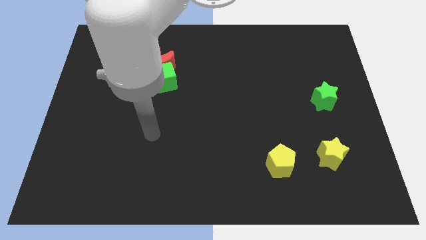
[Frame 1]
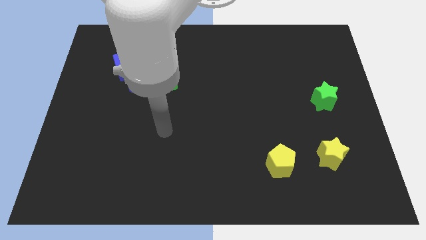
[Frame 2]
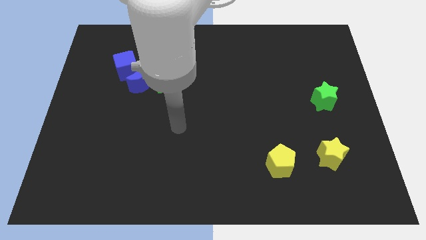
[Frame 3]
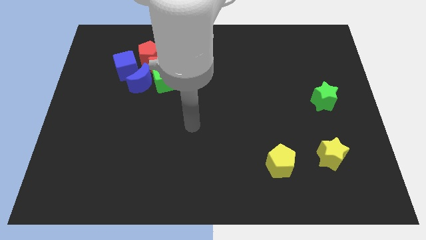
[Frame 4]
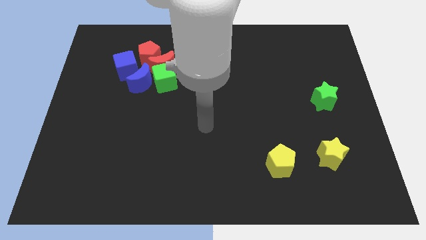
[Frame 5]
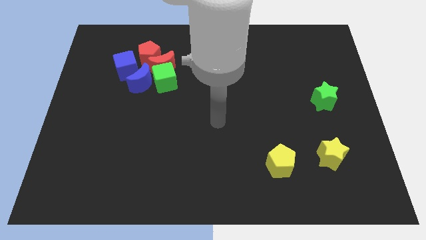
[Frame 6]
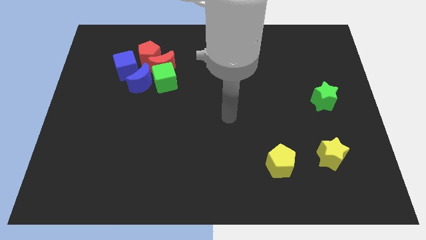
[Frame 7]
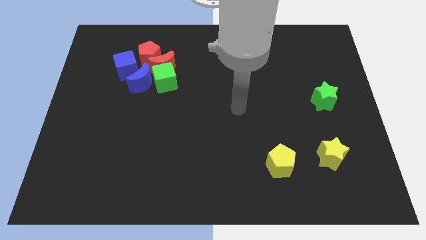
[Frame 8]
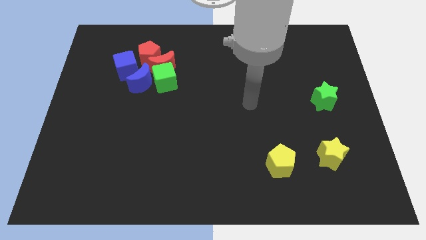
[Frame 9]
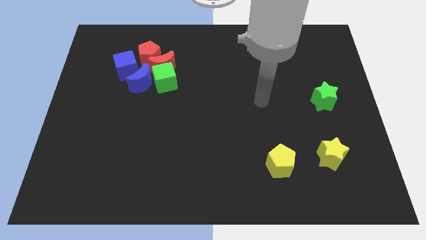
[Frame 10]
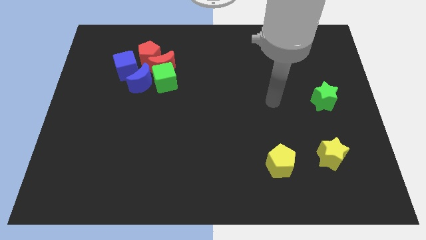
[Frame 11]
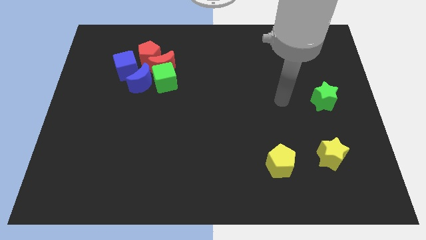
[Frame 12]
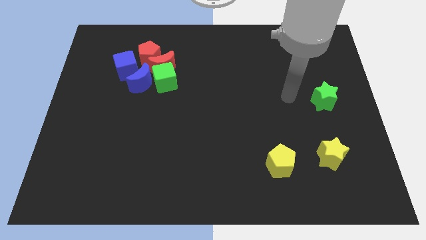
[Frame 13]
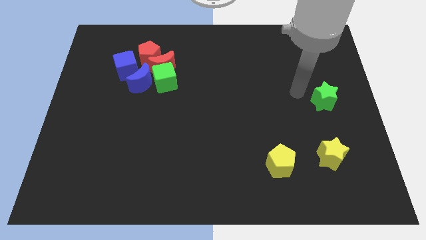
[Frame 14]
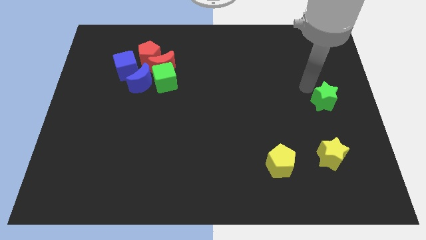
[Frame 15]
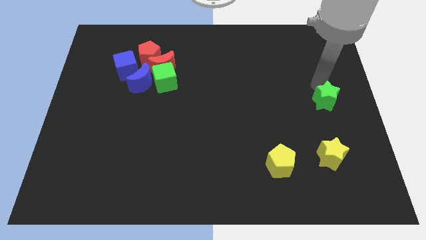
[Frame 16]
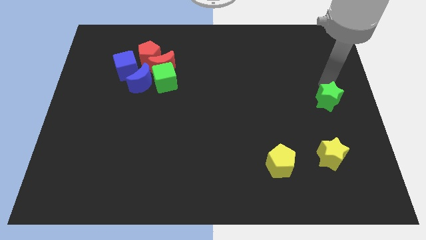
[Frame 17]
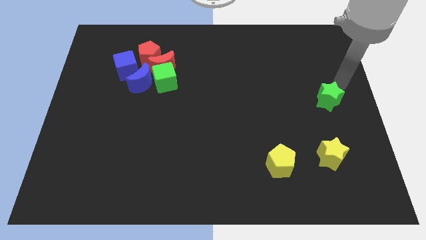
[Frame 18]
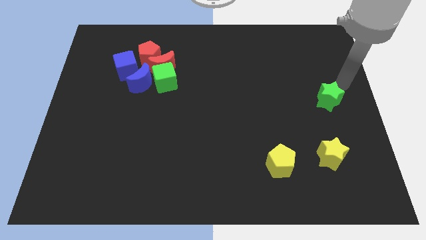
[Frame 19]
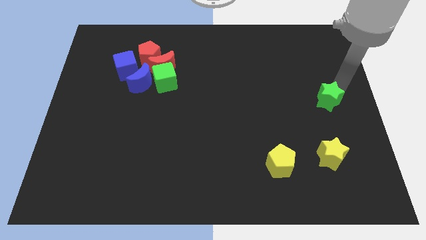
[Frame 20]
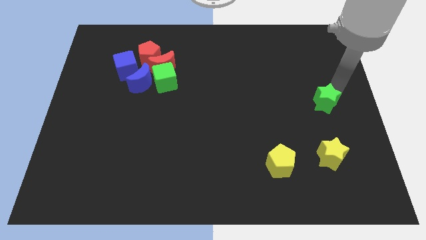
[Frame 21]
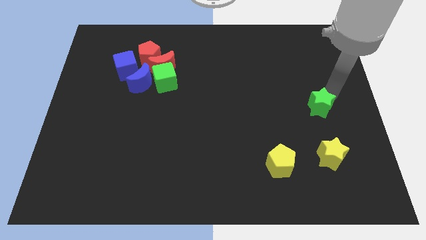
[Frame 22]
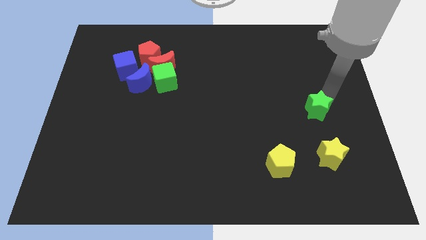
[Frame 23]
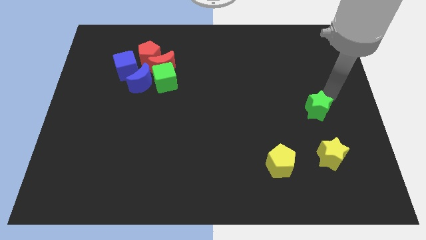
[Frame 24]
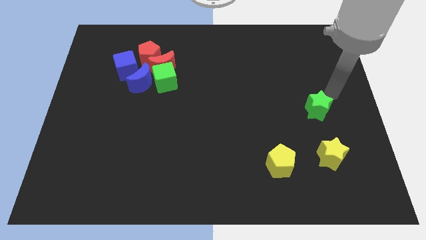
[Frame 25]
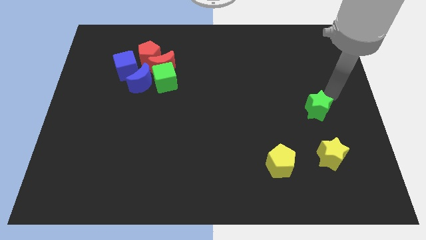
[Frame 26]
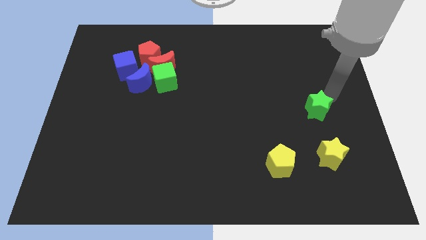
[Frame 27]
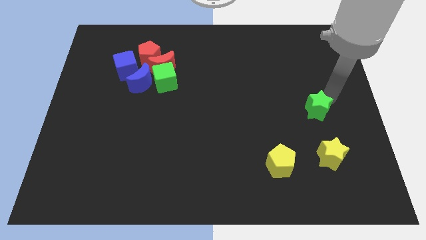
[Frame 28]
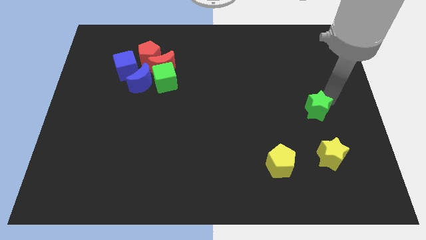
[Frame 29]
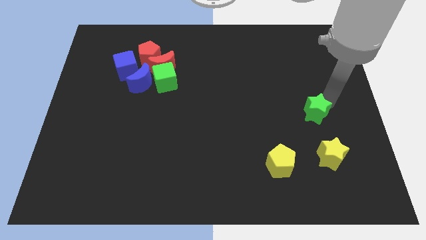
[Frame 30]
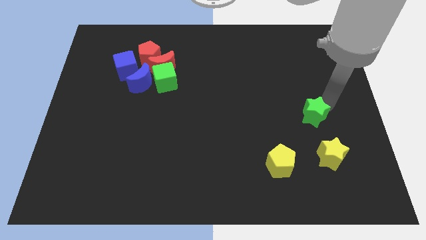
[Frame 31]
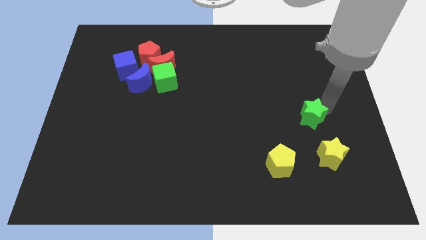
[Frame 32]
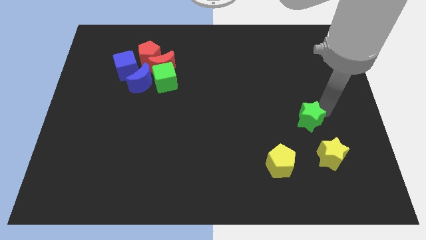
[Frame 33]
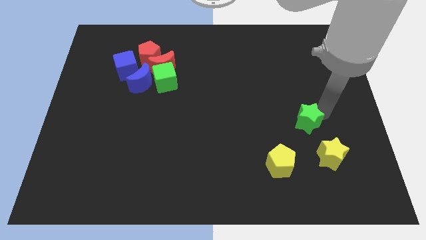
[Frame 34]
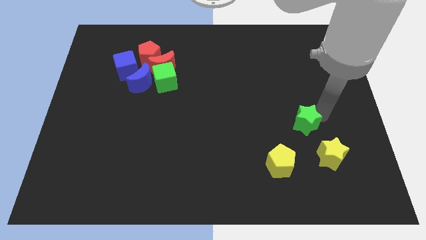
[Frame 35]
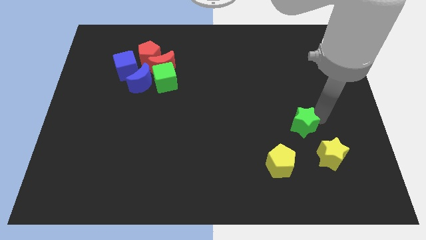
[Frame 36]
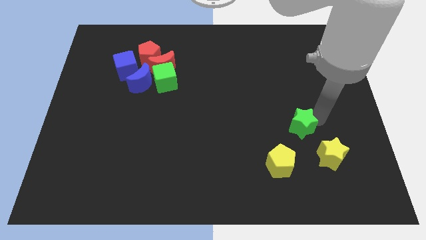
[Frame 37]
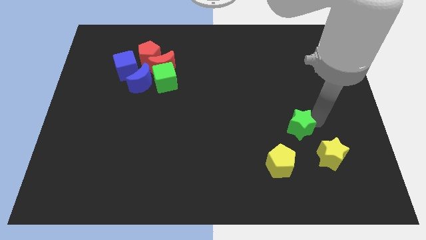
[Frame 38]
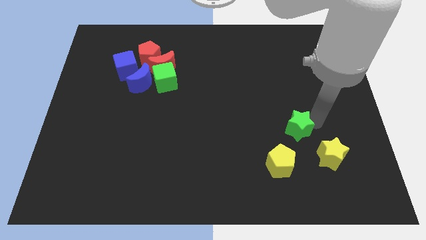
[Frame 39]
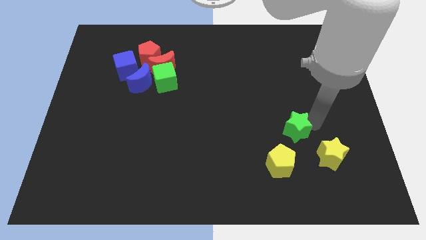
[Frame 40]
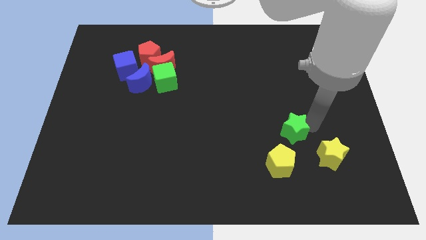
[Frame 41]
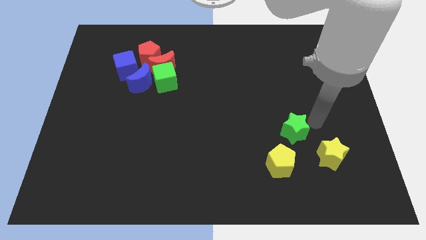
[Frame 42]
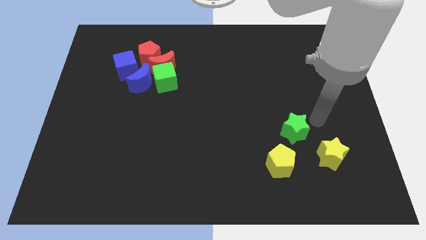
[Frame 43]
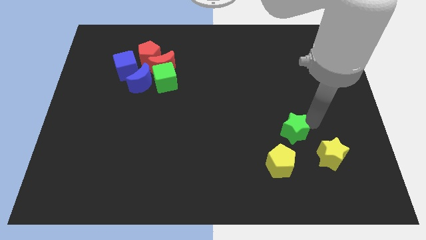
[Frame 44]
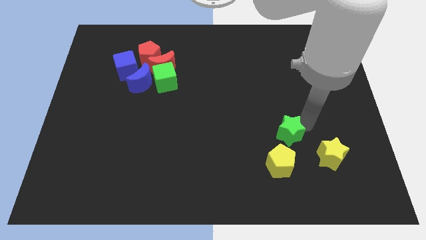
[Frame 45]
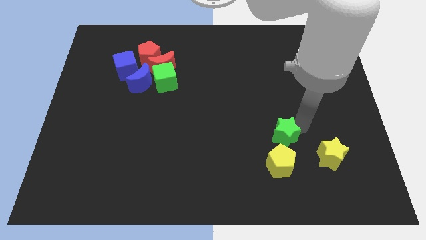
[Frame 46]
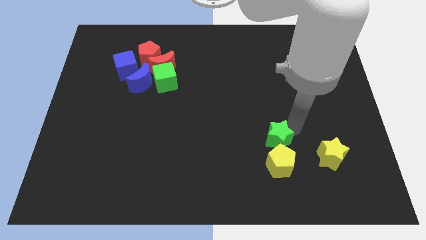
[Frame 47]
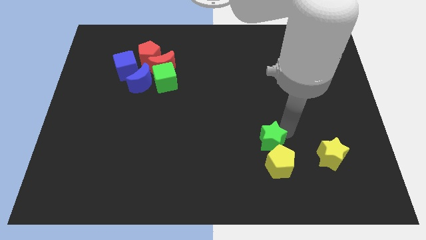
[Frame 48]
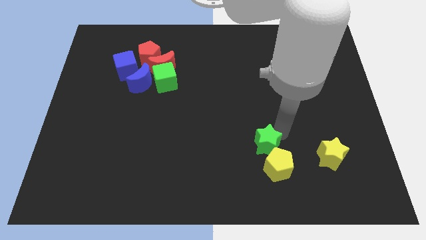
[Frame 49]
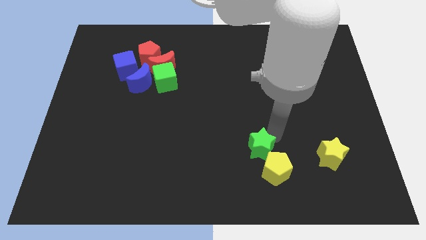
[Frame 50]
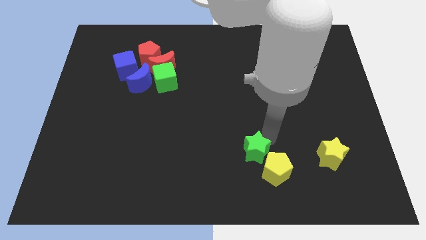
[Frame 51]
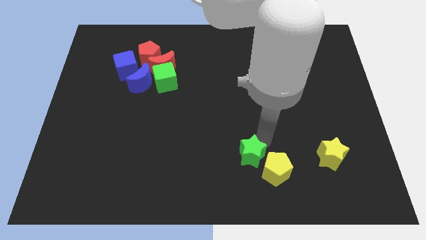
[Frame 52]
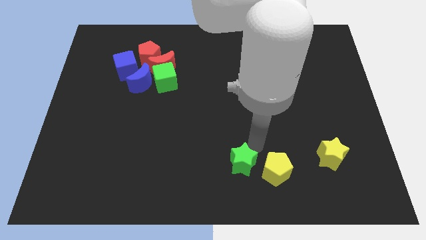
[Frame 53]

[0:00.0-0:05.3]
move the green star to the bottom
